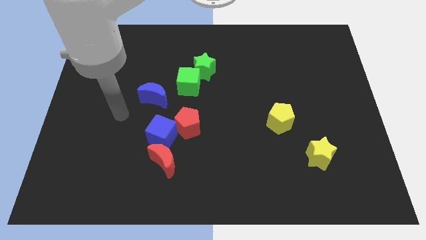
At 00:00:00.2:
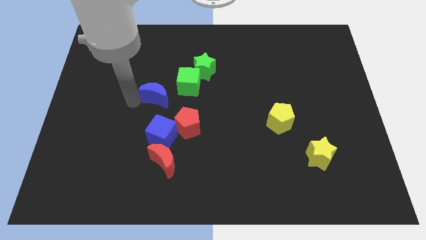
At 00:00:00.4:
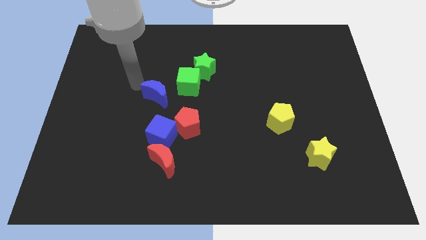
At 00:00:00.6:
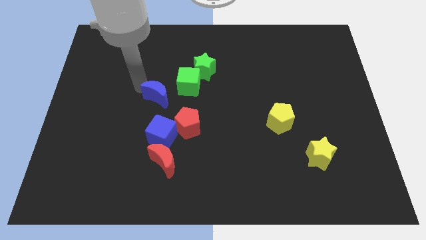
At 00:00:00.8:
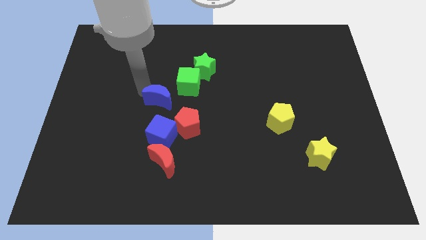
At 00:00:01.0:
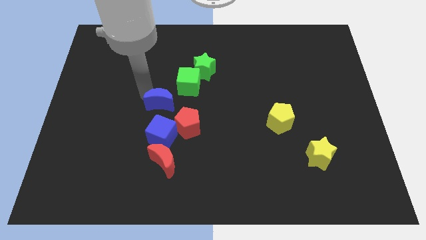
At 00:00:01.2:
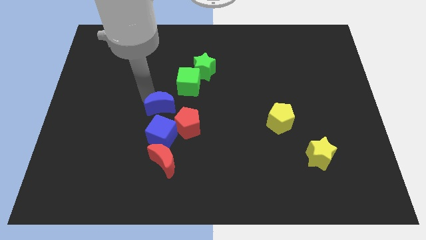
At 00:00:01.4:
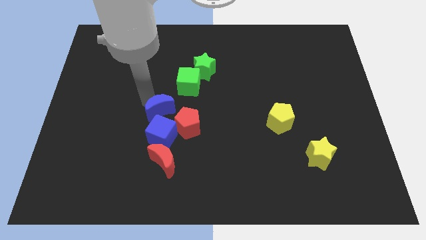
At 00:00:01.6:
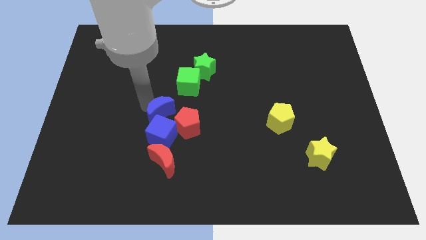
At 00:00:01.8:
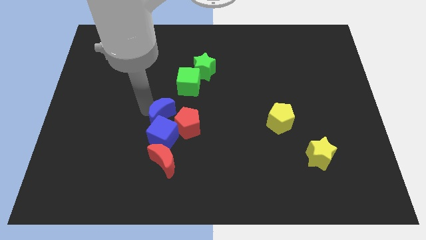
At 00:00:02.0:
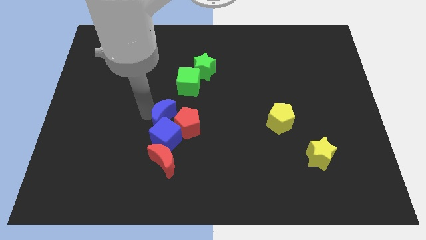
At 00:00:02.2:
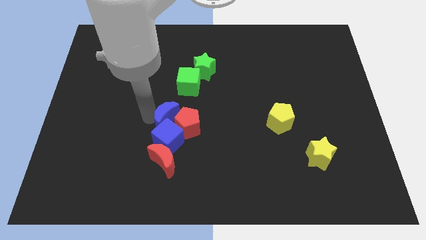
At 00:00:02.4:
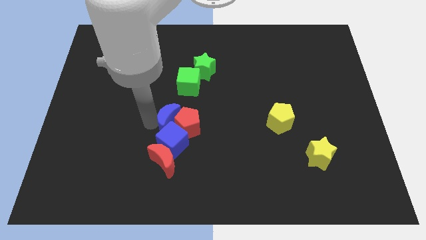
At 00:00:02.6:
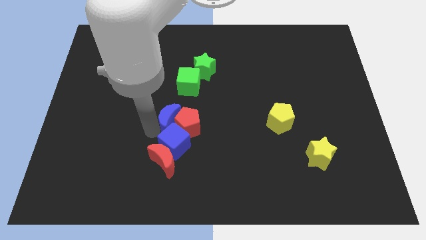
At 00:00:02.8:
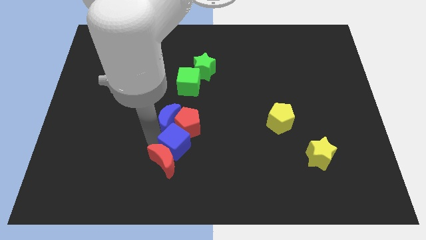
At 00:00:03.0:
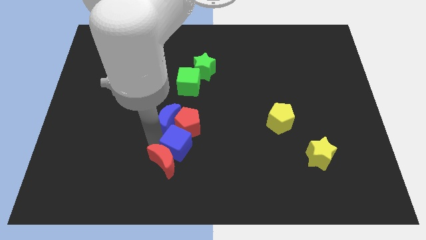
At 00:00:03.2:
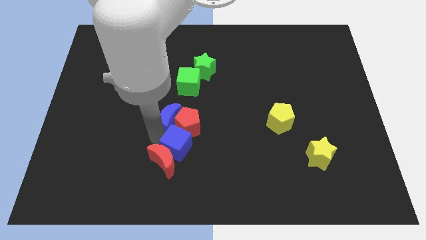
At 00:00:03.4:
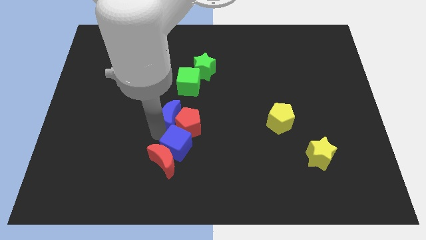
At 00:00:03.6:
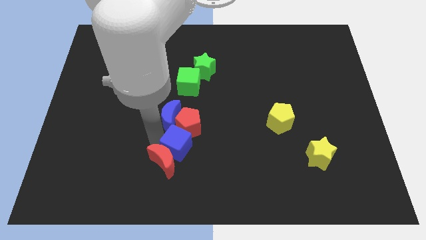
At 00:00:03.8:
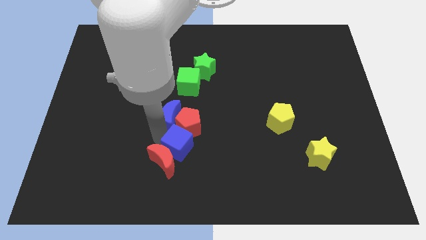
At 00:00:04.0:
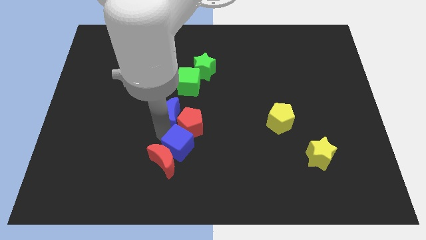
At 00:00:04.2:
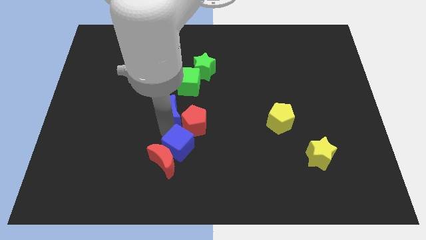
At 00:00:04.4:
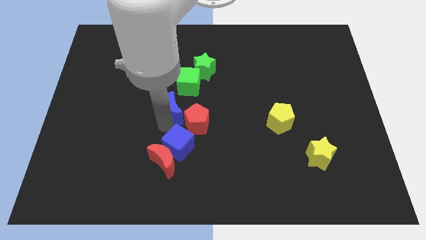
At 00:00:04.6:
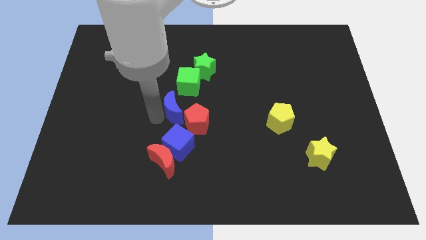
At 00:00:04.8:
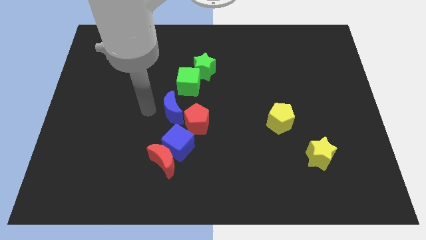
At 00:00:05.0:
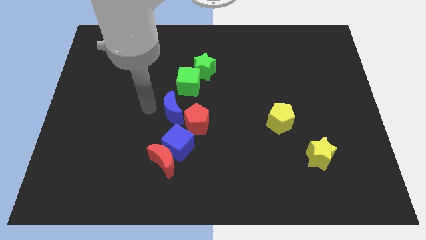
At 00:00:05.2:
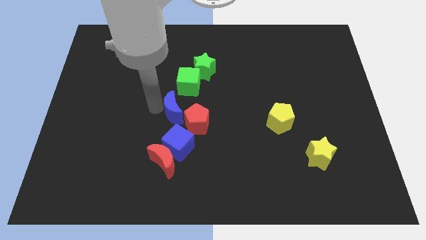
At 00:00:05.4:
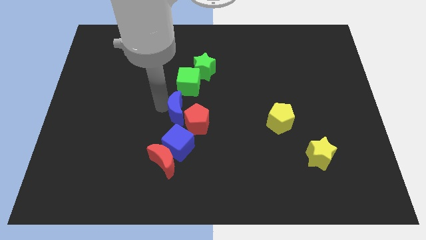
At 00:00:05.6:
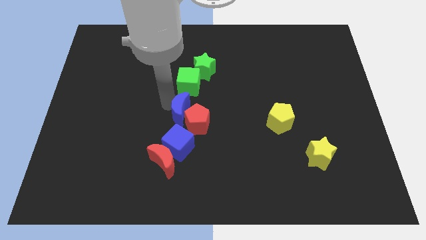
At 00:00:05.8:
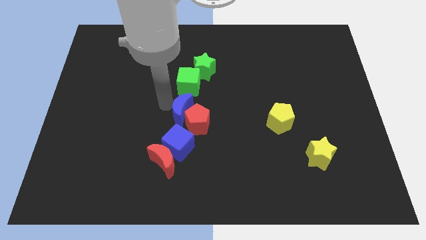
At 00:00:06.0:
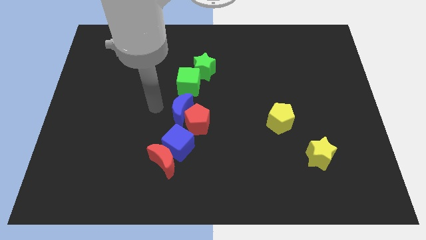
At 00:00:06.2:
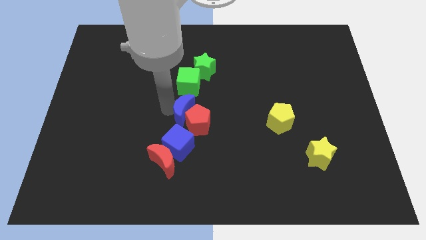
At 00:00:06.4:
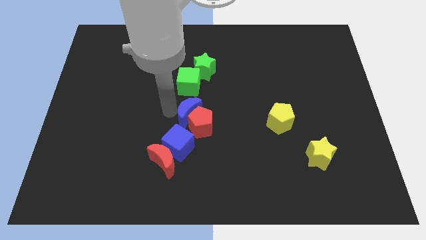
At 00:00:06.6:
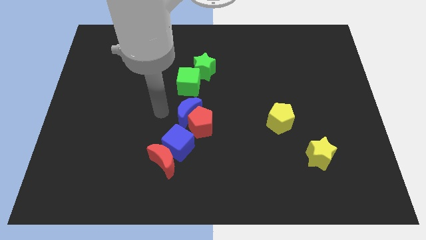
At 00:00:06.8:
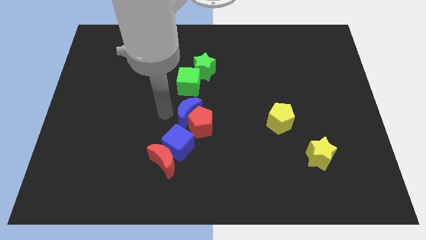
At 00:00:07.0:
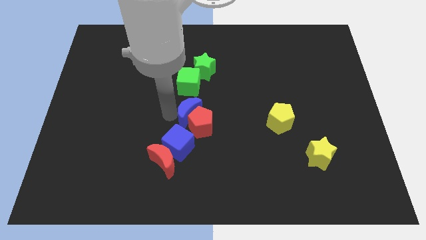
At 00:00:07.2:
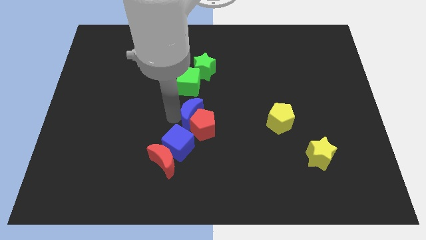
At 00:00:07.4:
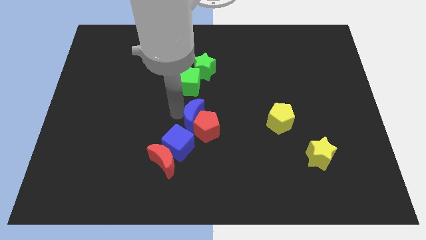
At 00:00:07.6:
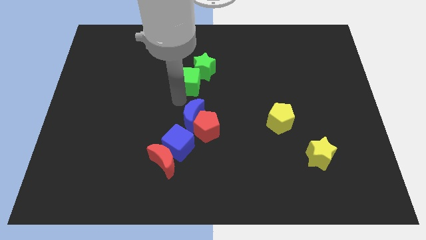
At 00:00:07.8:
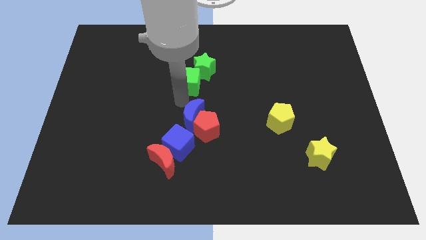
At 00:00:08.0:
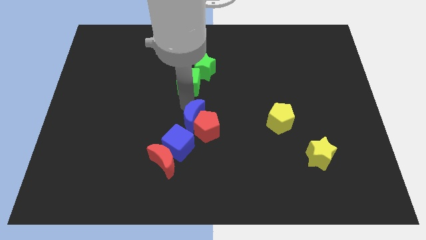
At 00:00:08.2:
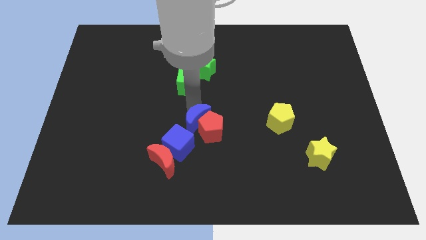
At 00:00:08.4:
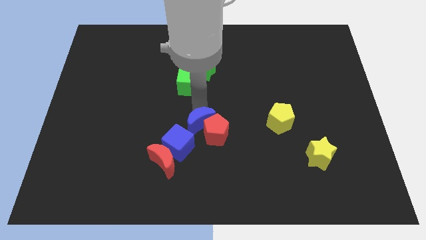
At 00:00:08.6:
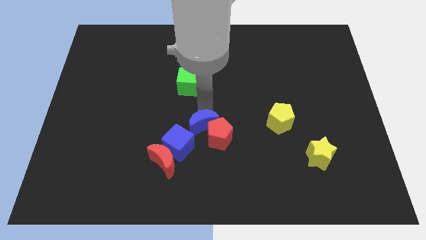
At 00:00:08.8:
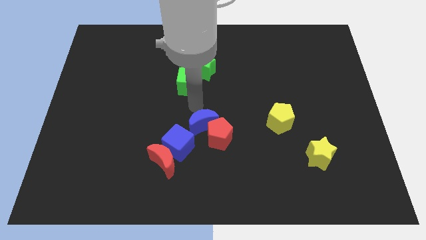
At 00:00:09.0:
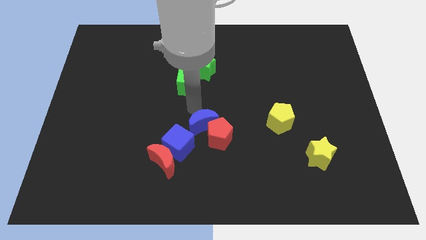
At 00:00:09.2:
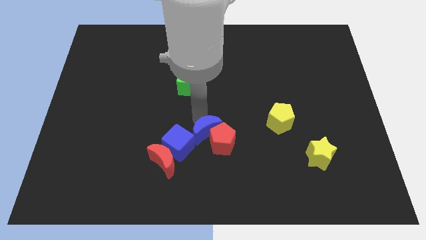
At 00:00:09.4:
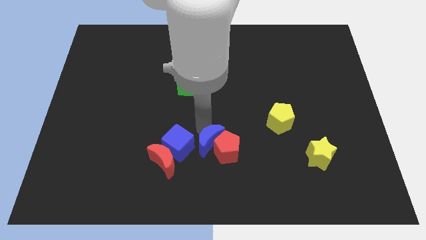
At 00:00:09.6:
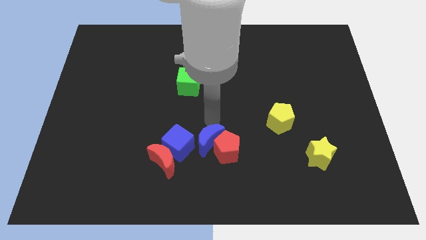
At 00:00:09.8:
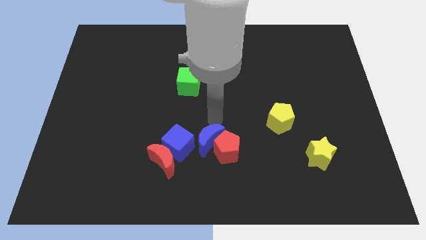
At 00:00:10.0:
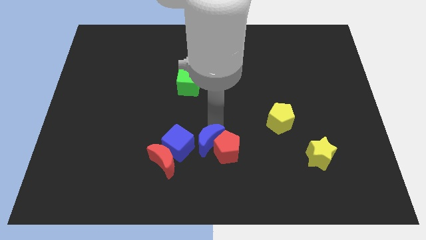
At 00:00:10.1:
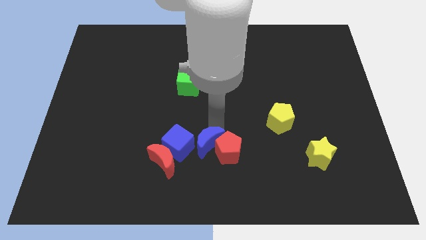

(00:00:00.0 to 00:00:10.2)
push the blue moon to the bottom right side of the blue cube

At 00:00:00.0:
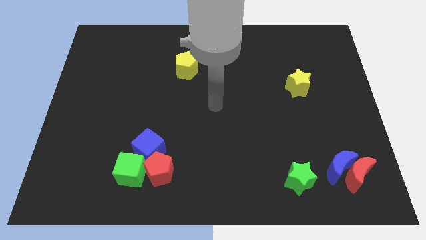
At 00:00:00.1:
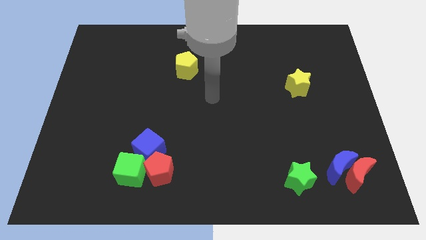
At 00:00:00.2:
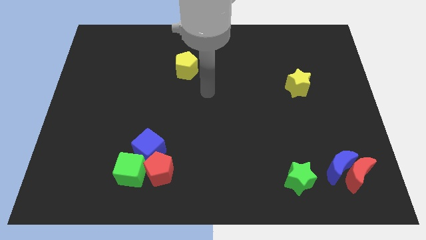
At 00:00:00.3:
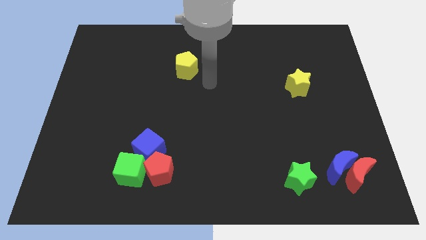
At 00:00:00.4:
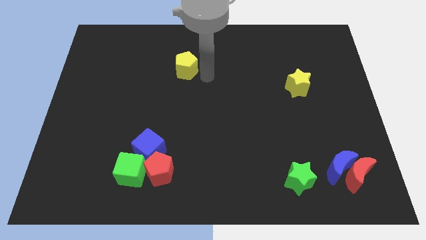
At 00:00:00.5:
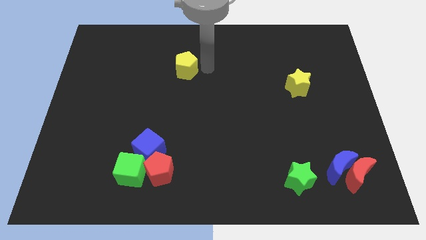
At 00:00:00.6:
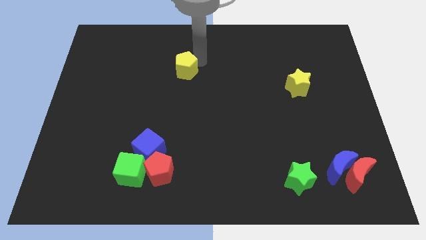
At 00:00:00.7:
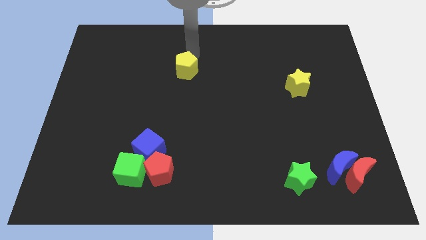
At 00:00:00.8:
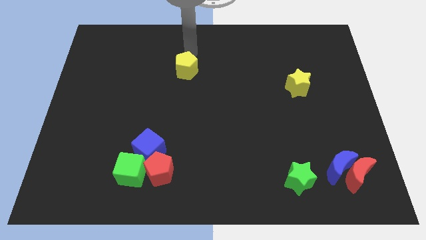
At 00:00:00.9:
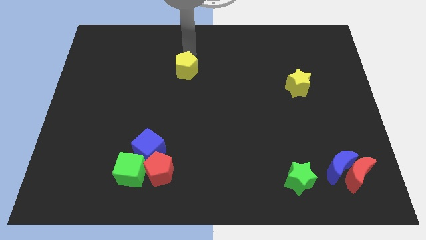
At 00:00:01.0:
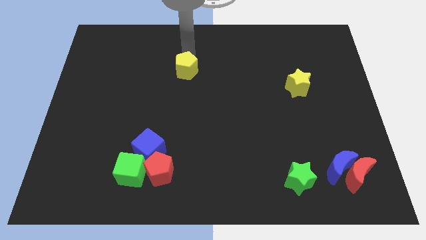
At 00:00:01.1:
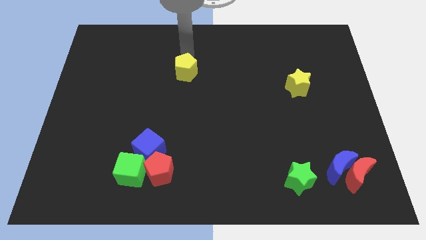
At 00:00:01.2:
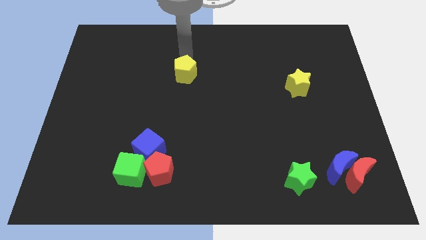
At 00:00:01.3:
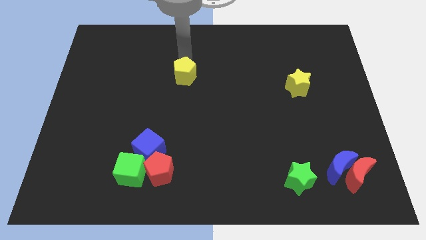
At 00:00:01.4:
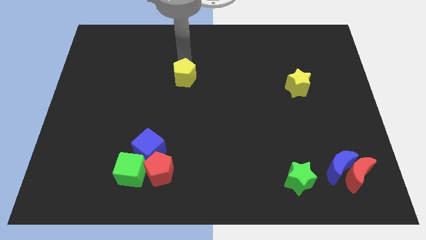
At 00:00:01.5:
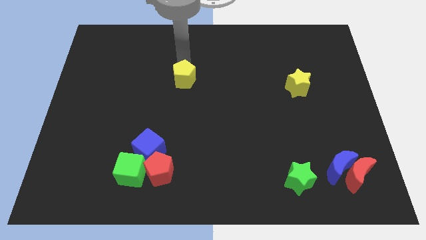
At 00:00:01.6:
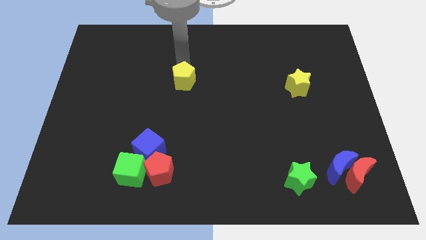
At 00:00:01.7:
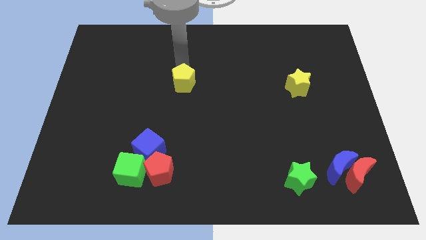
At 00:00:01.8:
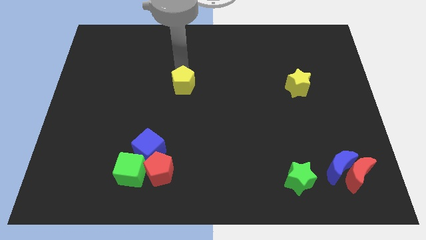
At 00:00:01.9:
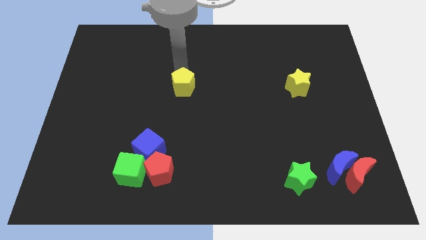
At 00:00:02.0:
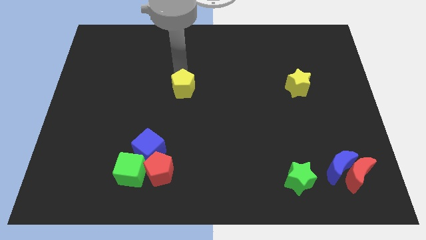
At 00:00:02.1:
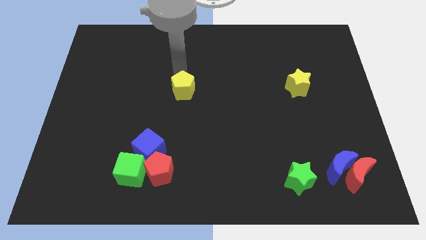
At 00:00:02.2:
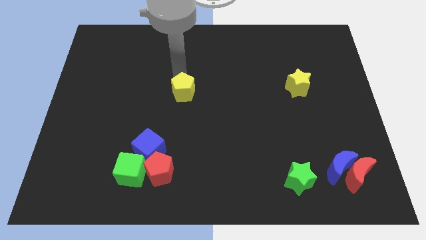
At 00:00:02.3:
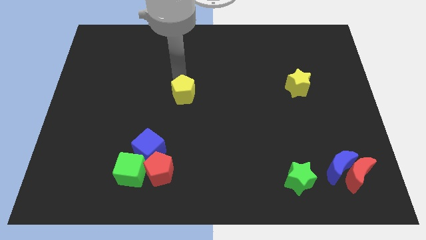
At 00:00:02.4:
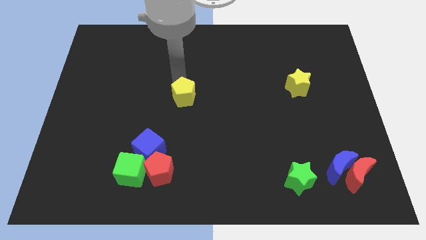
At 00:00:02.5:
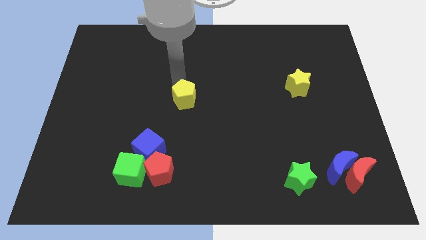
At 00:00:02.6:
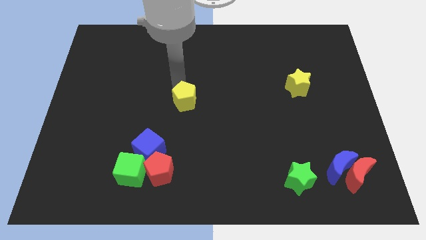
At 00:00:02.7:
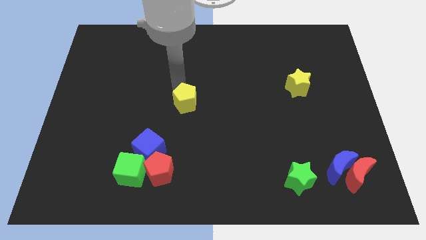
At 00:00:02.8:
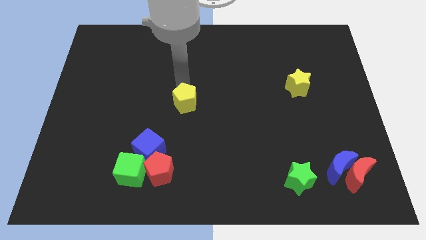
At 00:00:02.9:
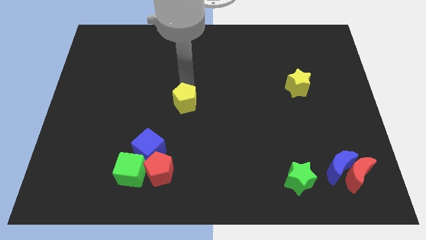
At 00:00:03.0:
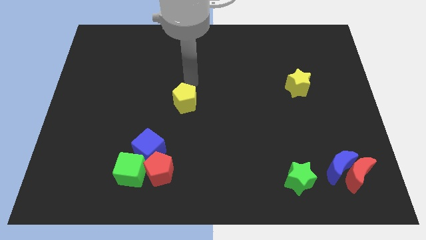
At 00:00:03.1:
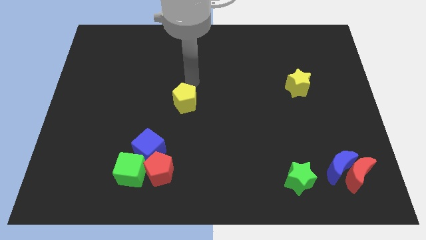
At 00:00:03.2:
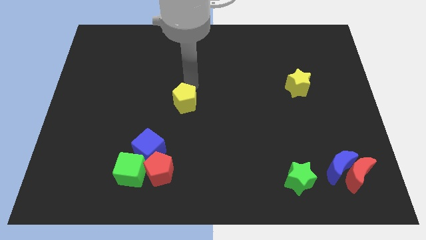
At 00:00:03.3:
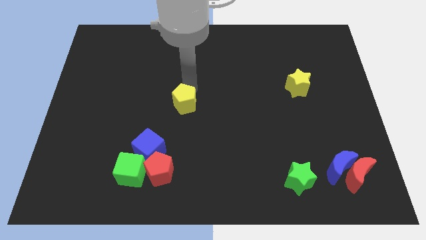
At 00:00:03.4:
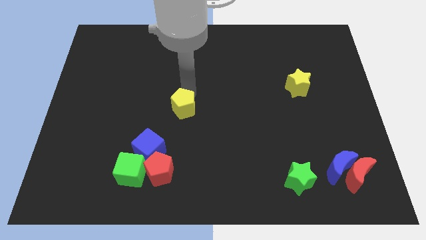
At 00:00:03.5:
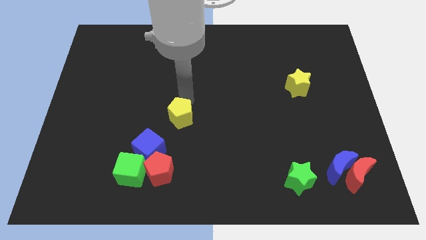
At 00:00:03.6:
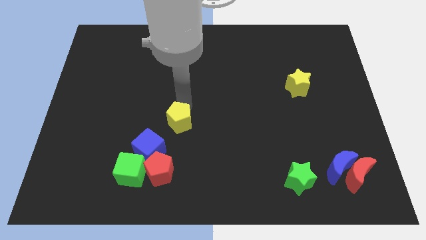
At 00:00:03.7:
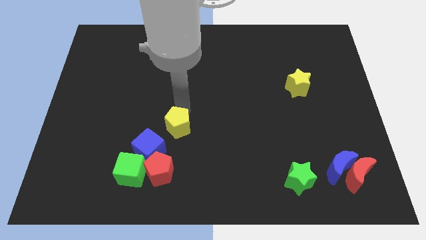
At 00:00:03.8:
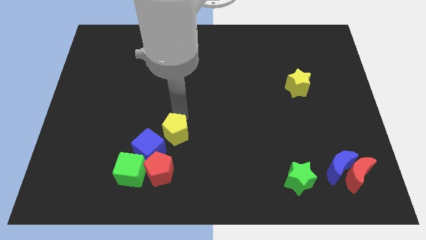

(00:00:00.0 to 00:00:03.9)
push the yellow pentagon to the top right of the red pentagon
